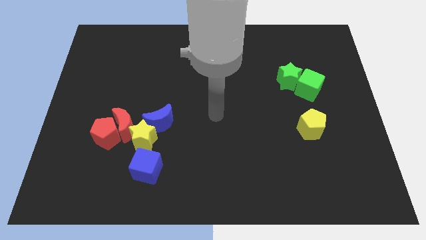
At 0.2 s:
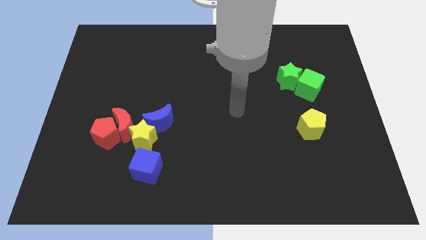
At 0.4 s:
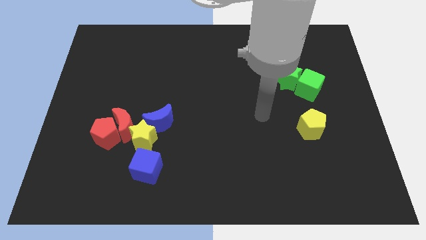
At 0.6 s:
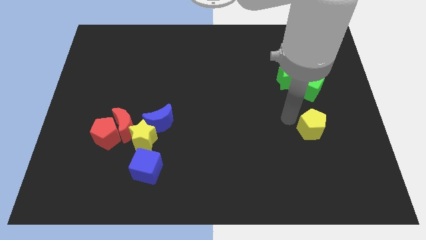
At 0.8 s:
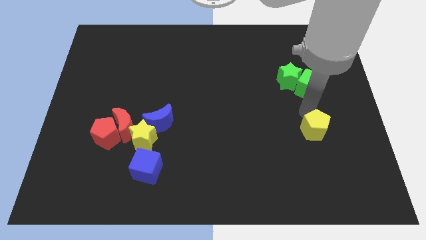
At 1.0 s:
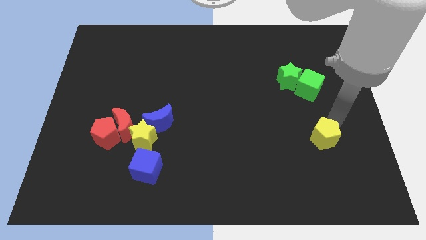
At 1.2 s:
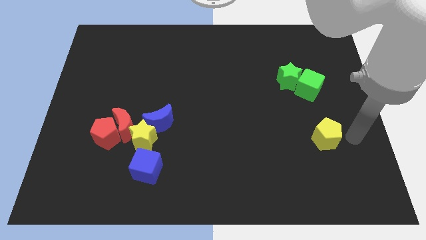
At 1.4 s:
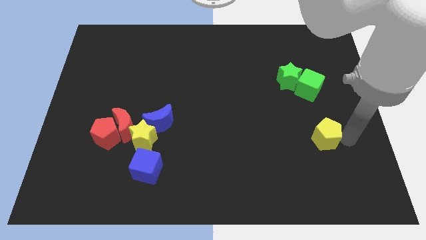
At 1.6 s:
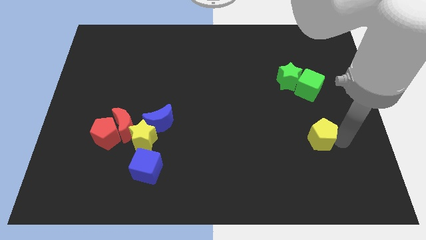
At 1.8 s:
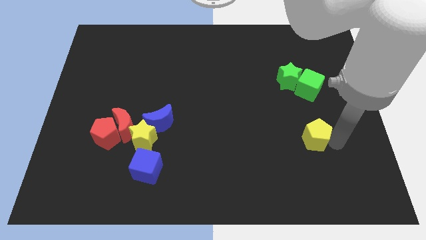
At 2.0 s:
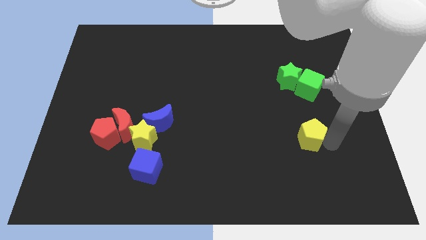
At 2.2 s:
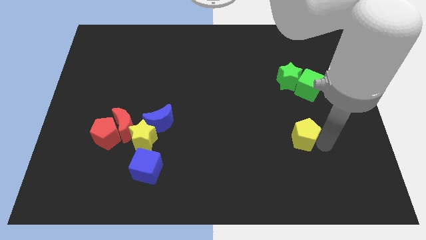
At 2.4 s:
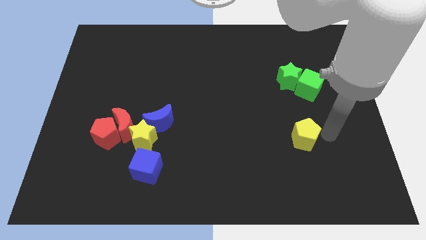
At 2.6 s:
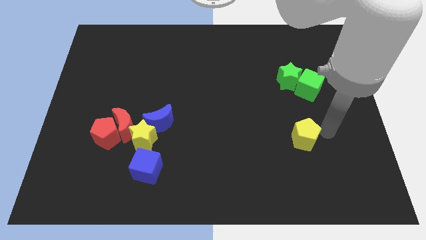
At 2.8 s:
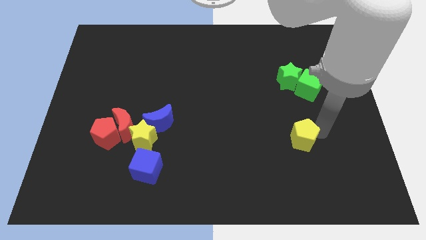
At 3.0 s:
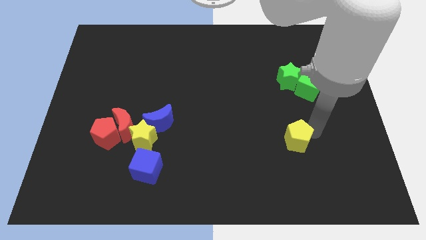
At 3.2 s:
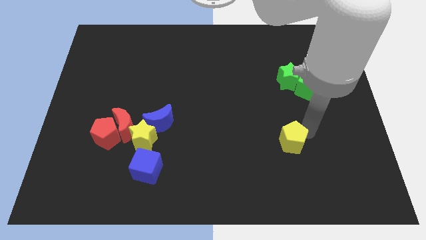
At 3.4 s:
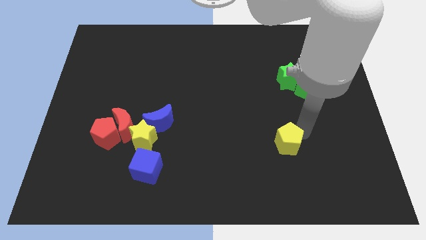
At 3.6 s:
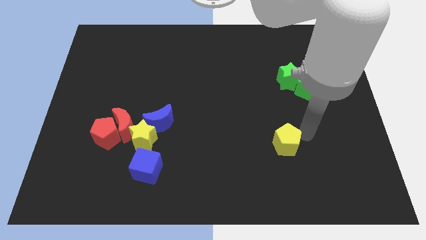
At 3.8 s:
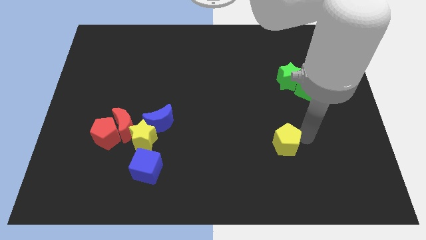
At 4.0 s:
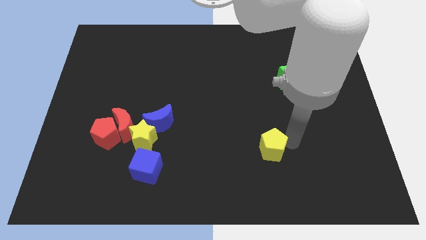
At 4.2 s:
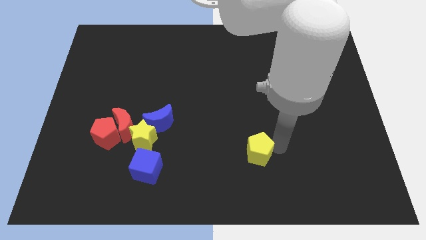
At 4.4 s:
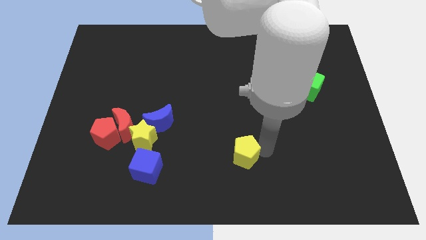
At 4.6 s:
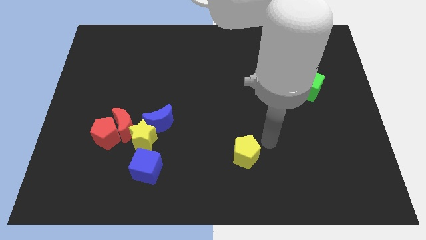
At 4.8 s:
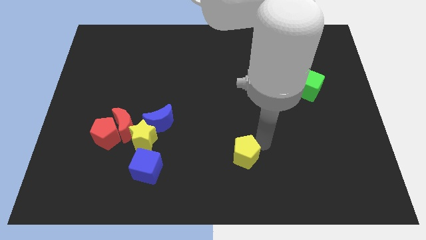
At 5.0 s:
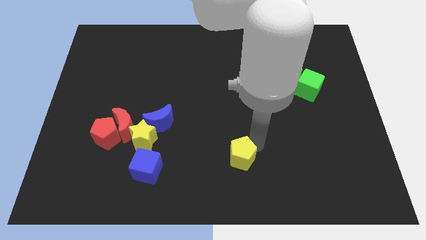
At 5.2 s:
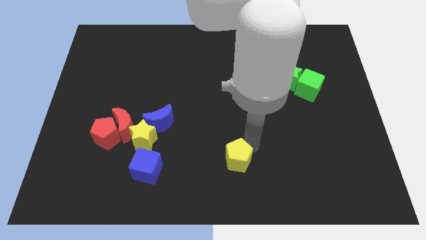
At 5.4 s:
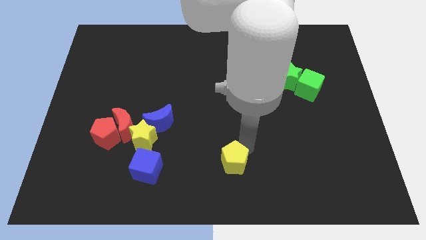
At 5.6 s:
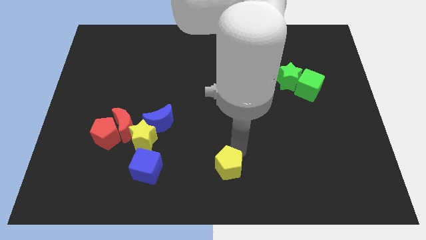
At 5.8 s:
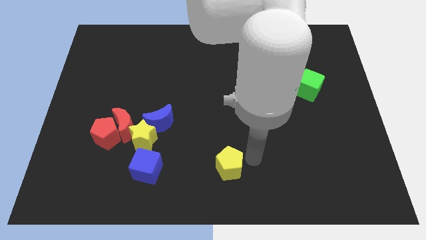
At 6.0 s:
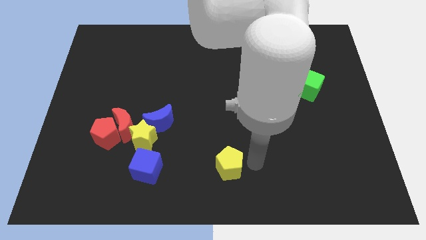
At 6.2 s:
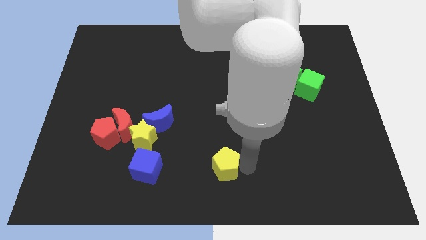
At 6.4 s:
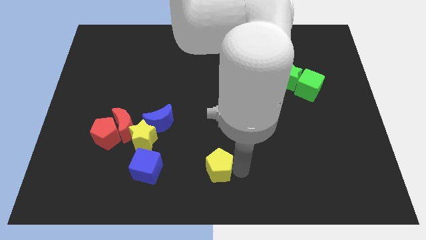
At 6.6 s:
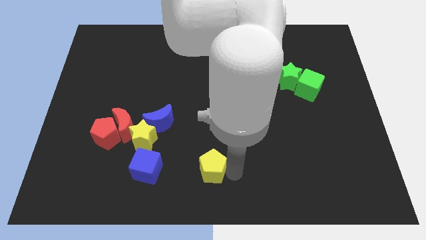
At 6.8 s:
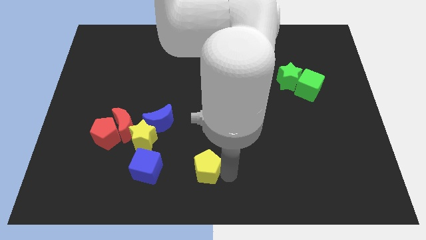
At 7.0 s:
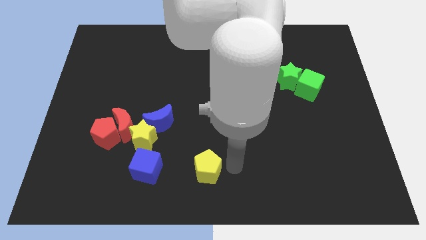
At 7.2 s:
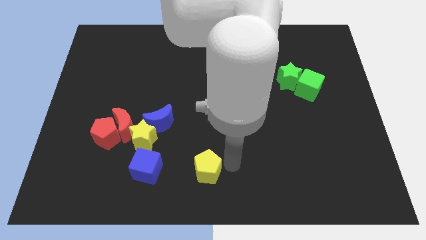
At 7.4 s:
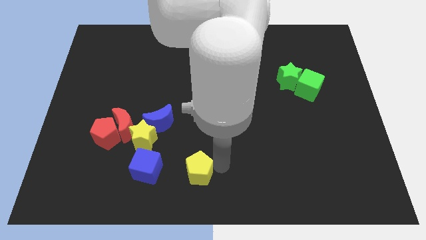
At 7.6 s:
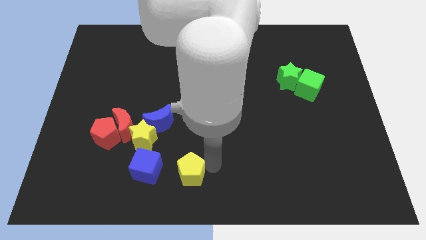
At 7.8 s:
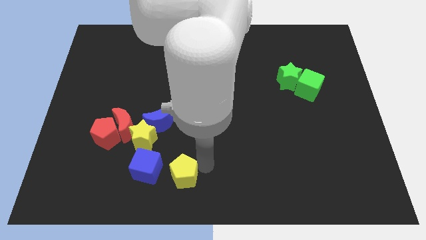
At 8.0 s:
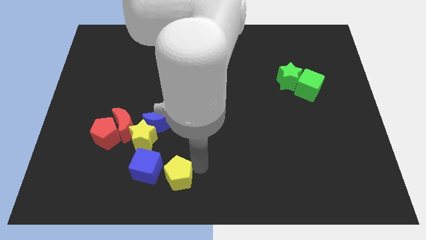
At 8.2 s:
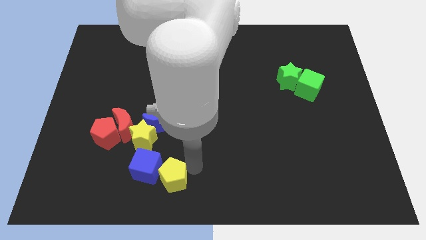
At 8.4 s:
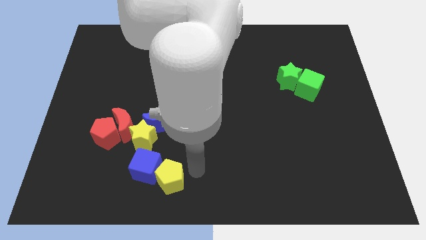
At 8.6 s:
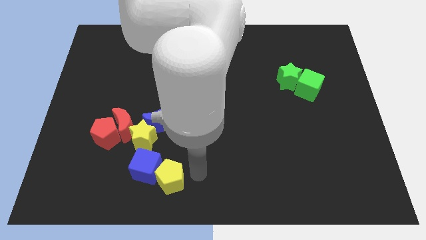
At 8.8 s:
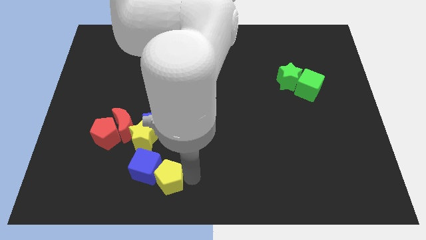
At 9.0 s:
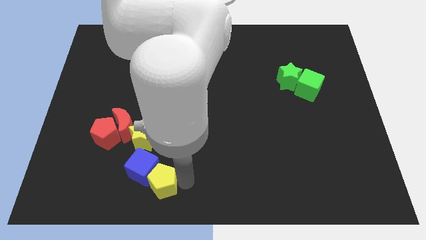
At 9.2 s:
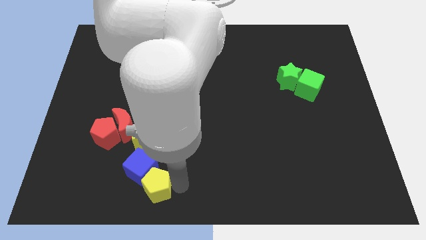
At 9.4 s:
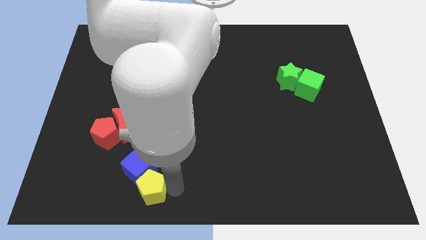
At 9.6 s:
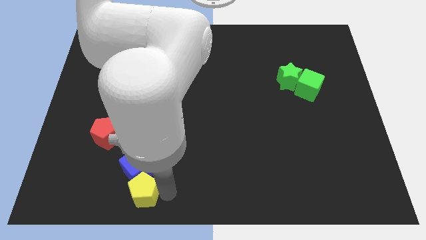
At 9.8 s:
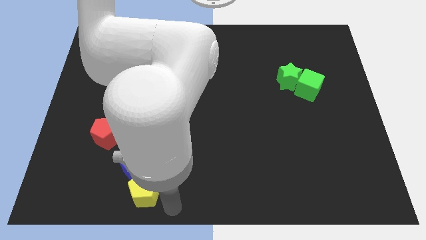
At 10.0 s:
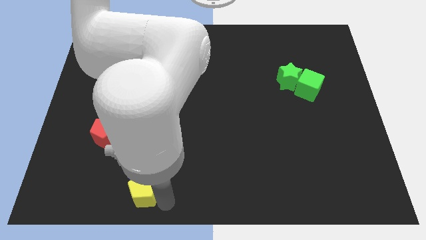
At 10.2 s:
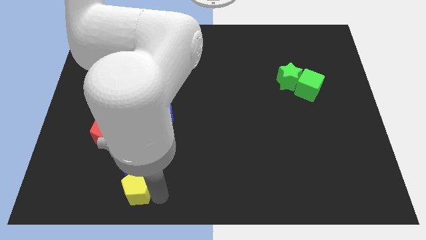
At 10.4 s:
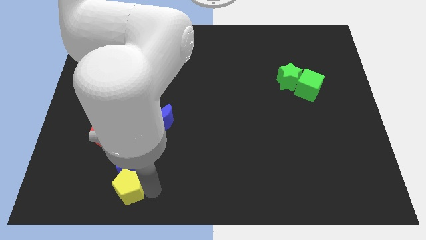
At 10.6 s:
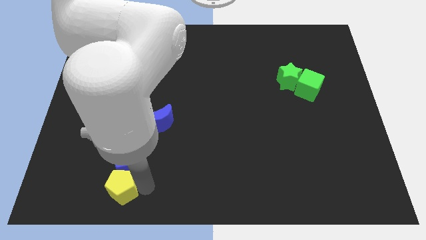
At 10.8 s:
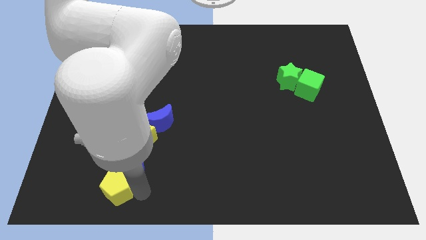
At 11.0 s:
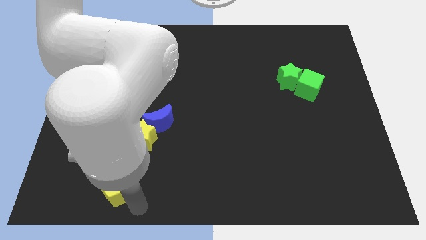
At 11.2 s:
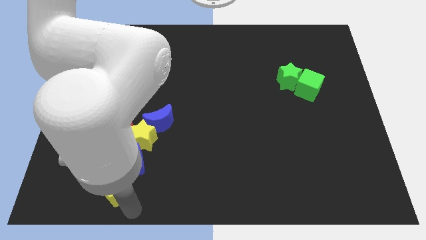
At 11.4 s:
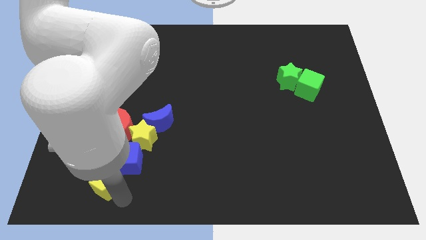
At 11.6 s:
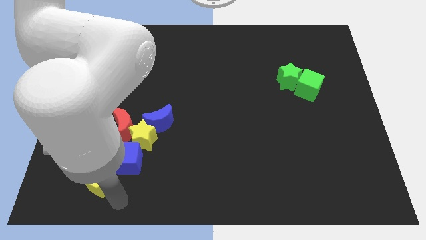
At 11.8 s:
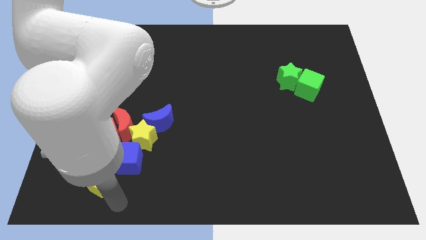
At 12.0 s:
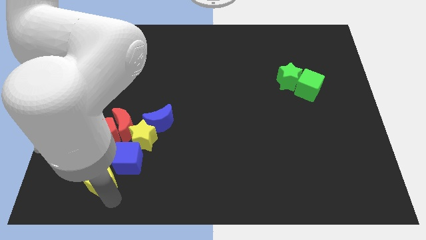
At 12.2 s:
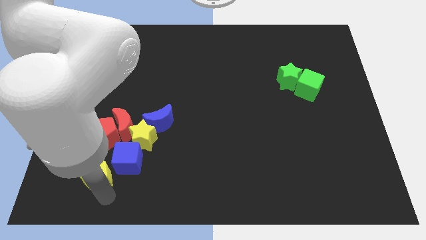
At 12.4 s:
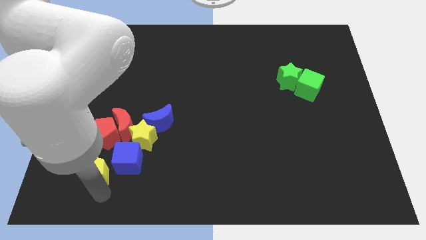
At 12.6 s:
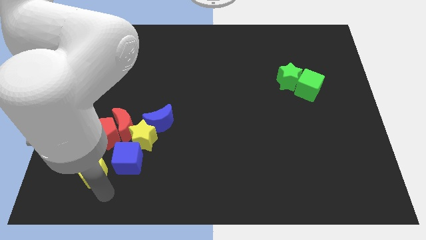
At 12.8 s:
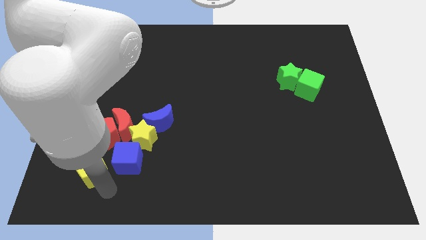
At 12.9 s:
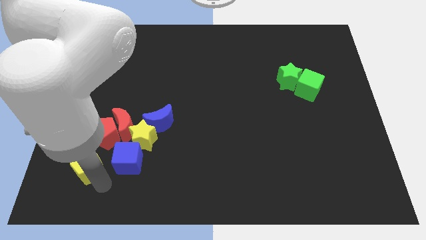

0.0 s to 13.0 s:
move the yellow pentagon diagonally down and to the left of the red pentagon

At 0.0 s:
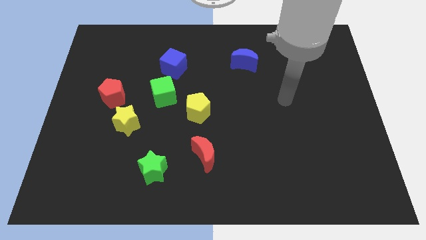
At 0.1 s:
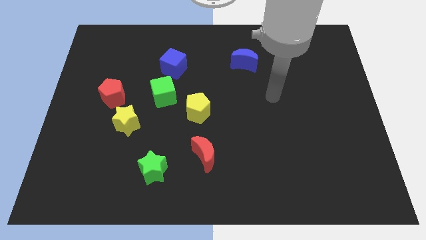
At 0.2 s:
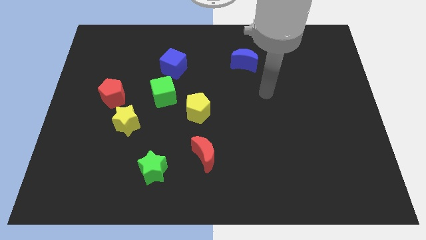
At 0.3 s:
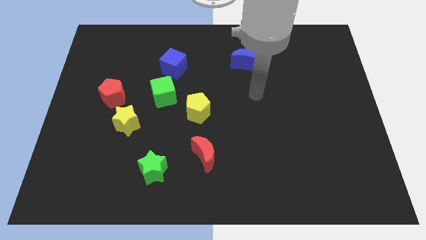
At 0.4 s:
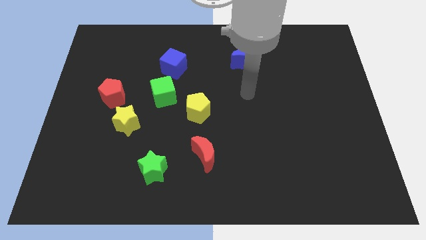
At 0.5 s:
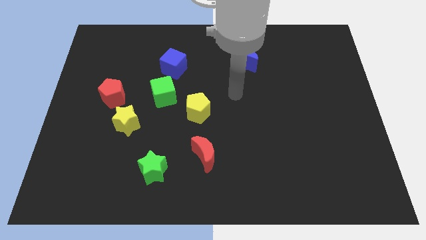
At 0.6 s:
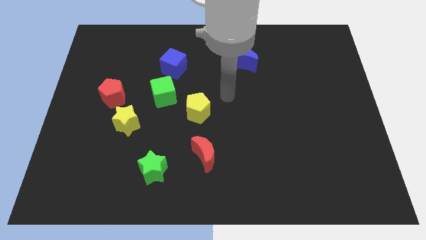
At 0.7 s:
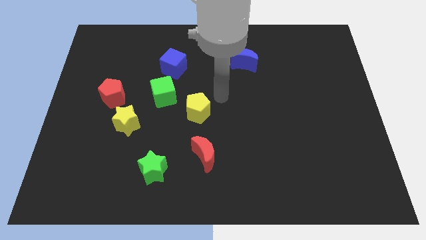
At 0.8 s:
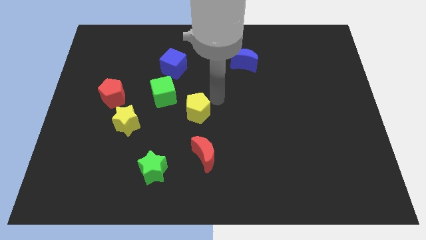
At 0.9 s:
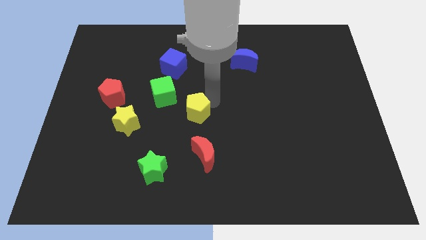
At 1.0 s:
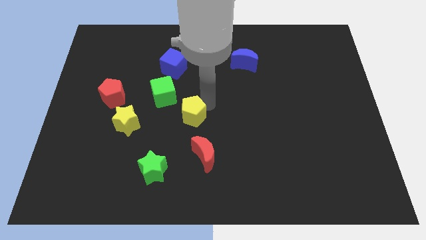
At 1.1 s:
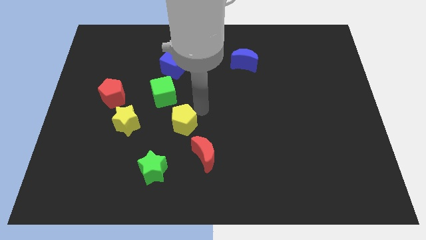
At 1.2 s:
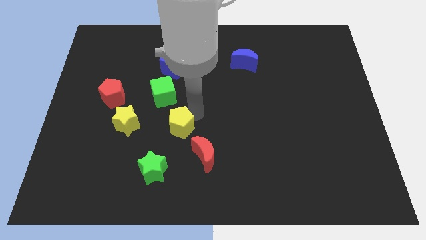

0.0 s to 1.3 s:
slide the yellow pentagon to the bottom side of the green cube
